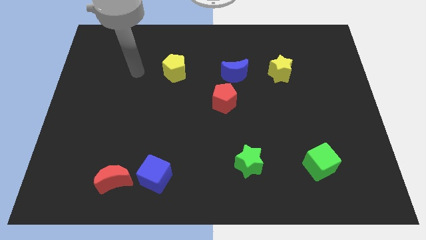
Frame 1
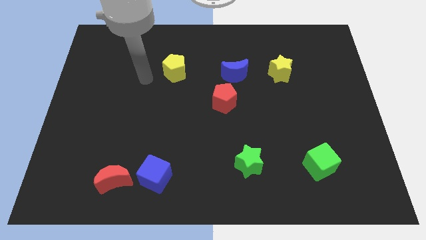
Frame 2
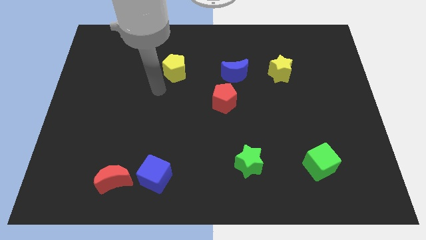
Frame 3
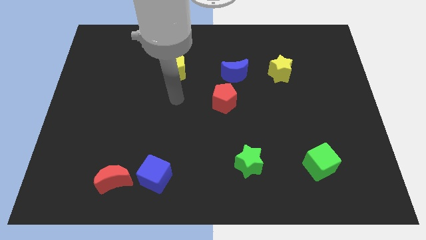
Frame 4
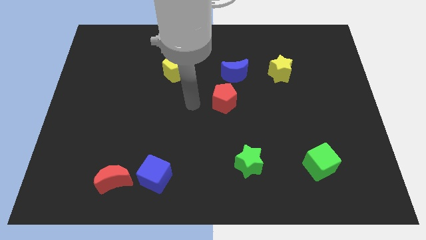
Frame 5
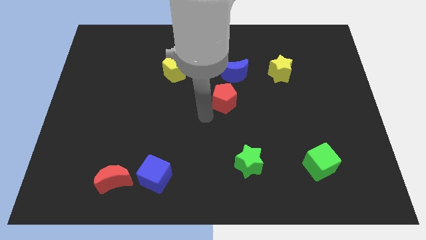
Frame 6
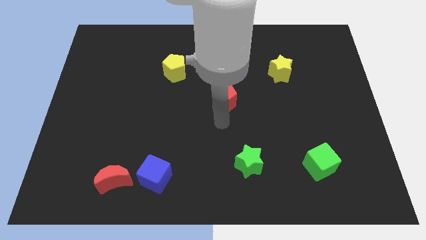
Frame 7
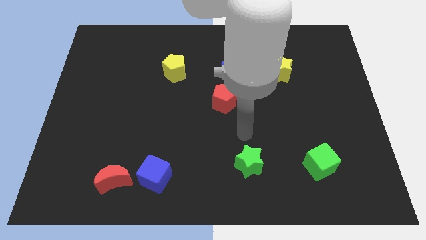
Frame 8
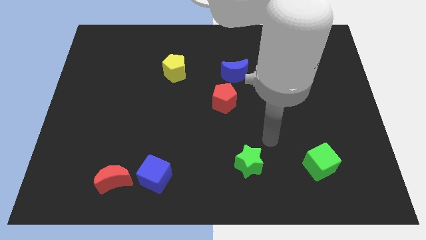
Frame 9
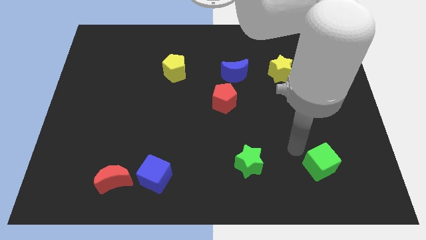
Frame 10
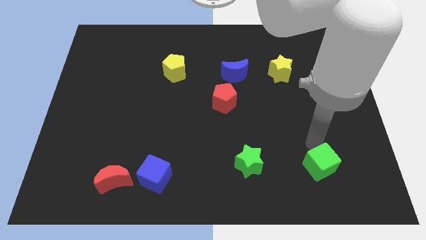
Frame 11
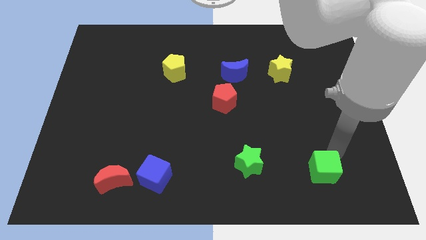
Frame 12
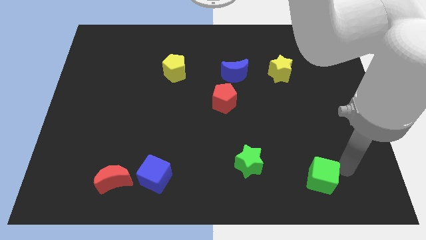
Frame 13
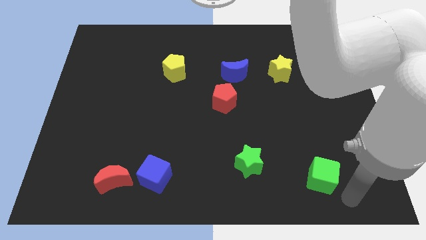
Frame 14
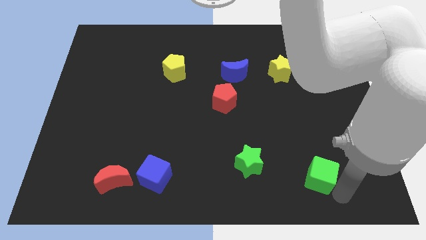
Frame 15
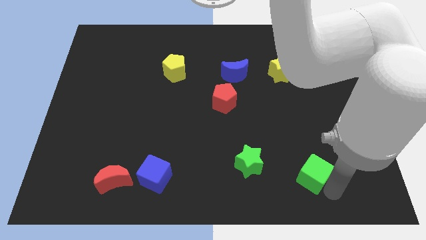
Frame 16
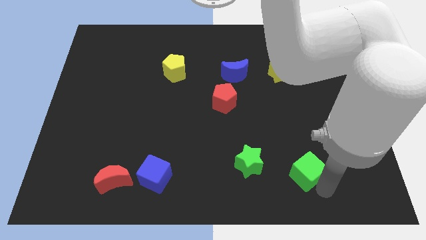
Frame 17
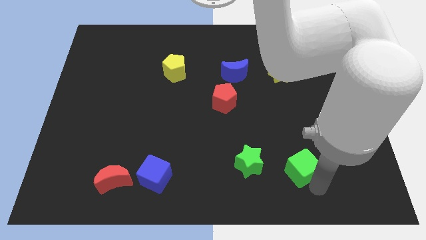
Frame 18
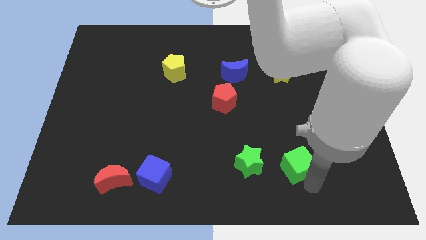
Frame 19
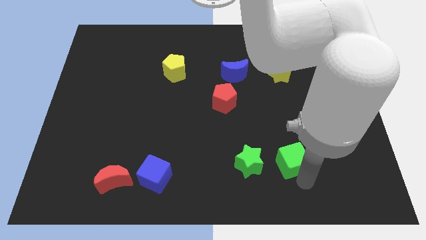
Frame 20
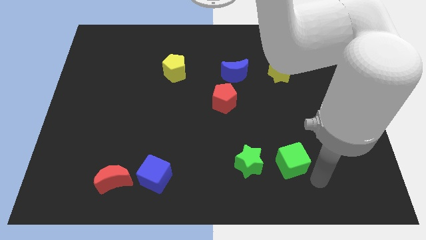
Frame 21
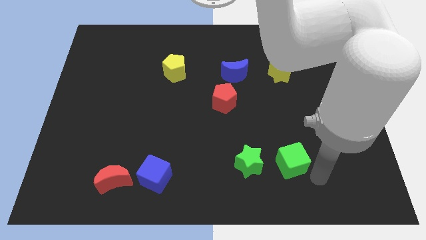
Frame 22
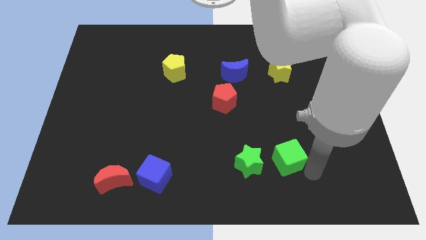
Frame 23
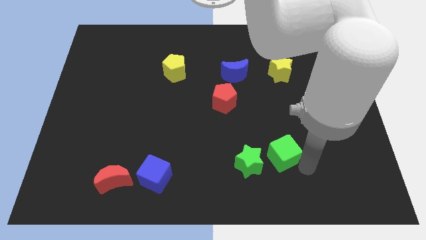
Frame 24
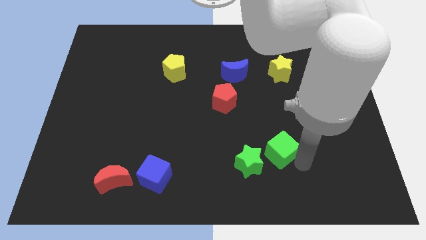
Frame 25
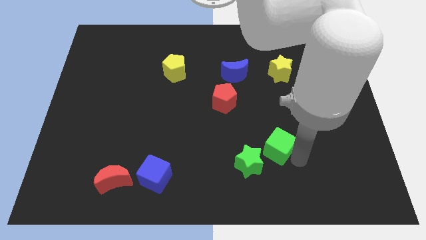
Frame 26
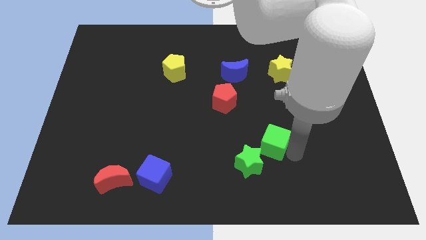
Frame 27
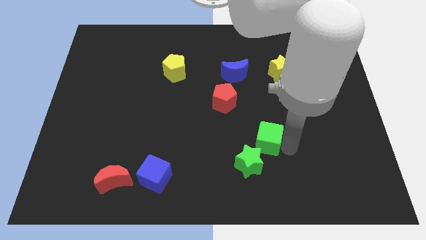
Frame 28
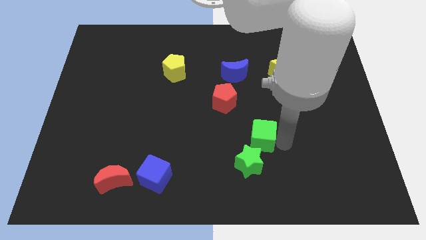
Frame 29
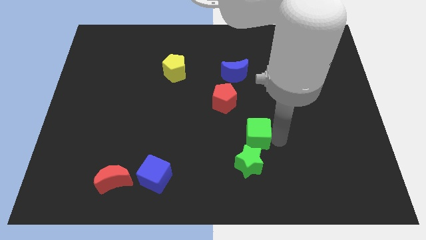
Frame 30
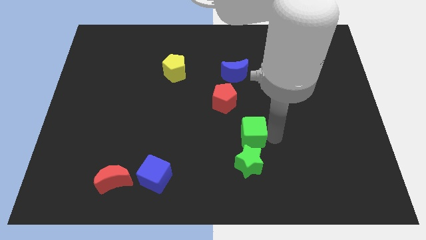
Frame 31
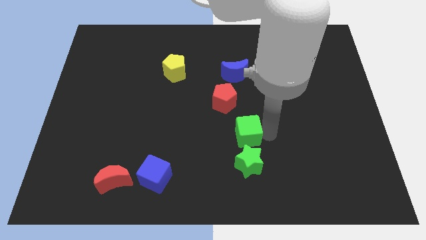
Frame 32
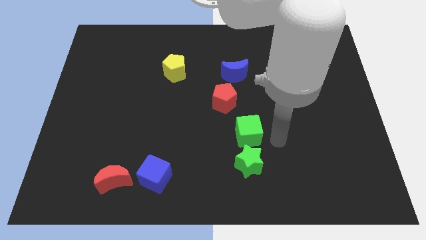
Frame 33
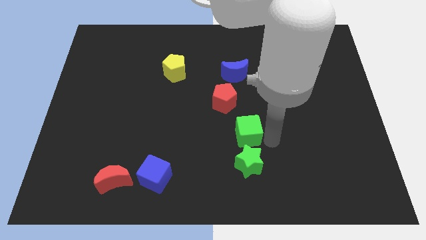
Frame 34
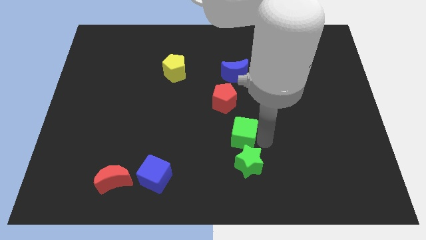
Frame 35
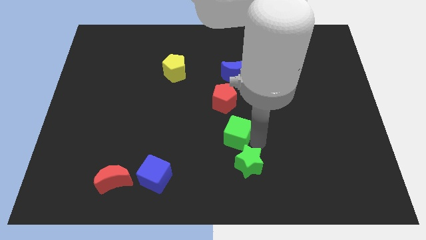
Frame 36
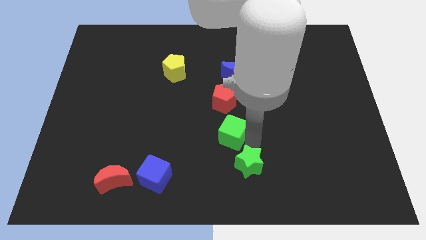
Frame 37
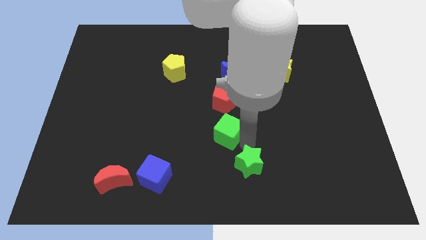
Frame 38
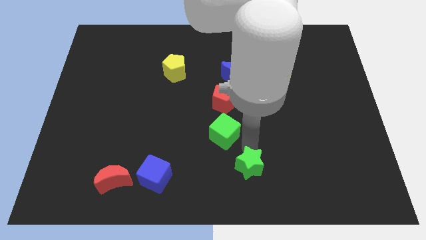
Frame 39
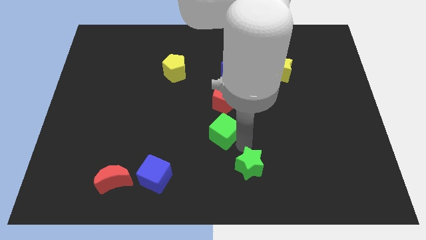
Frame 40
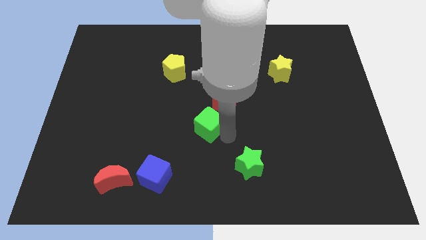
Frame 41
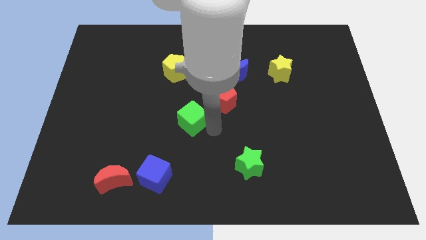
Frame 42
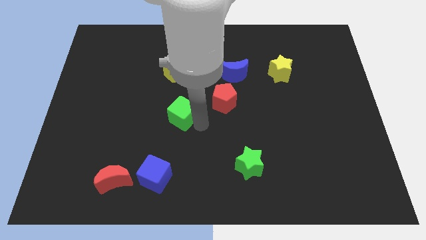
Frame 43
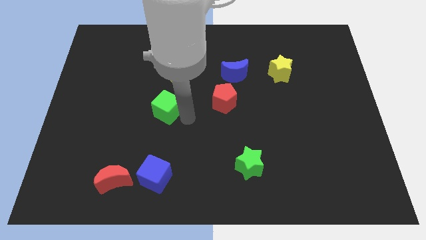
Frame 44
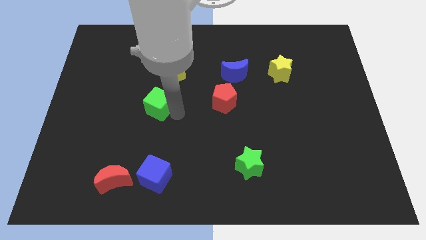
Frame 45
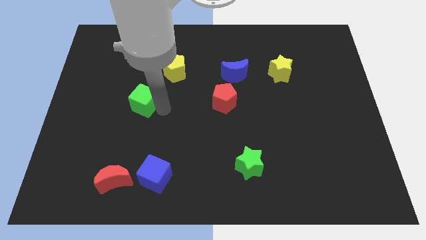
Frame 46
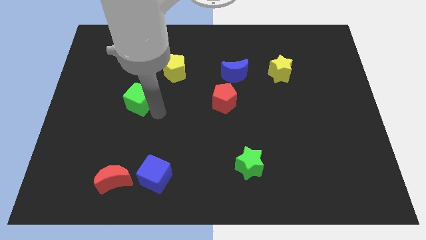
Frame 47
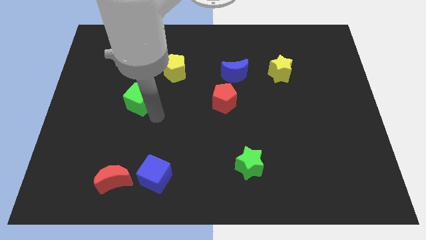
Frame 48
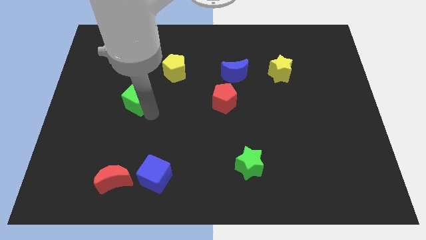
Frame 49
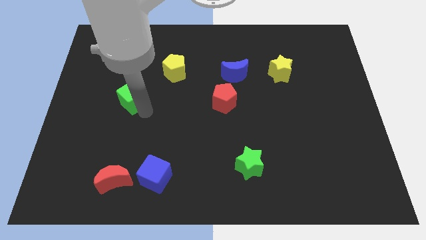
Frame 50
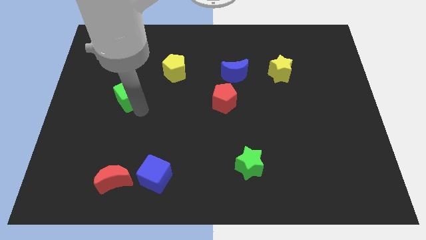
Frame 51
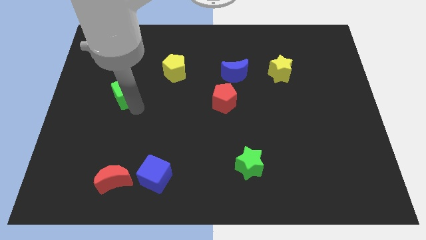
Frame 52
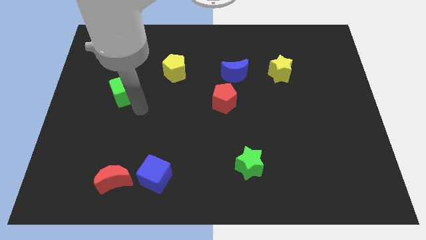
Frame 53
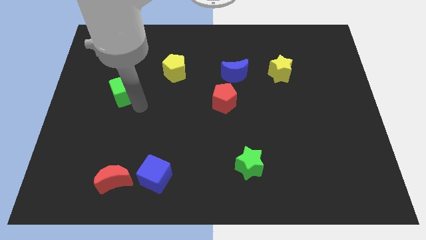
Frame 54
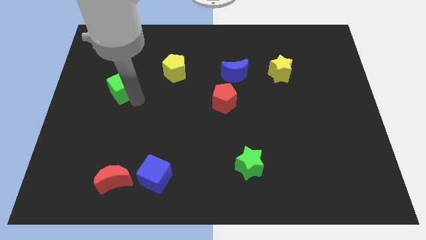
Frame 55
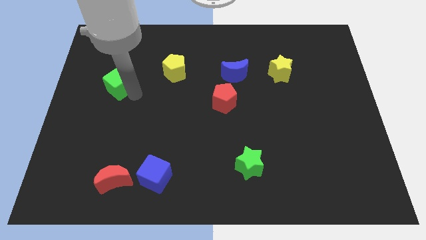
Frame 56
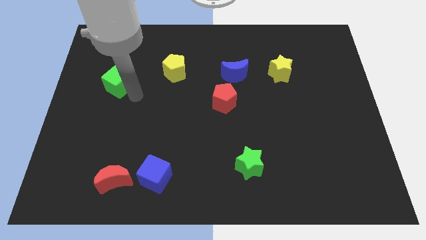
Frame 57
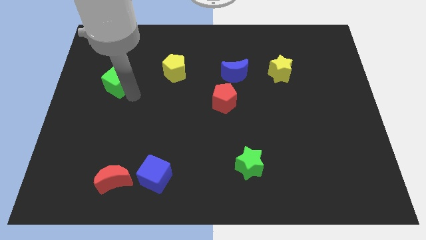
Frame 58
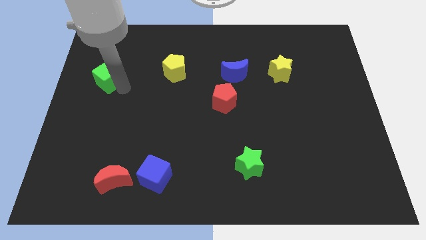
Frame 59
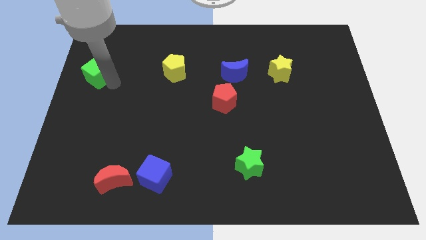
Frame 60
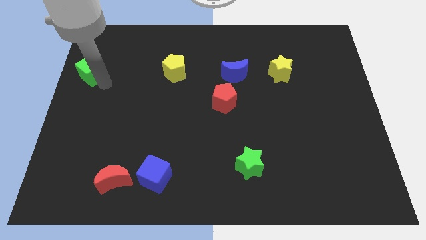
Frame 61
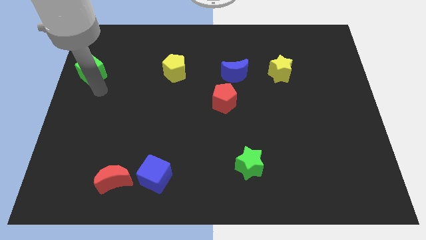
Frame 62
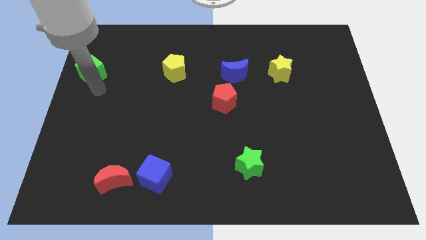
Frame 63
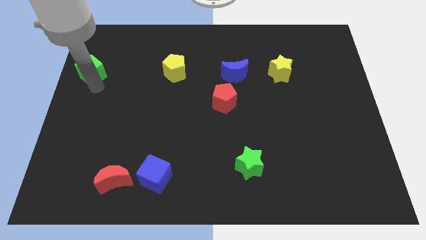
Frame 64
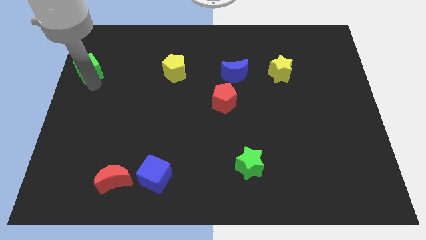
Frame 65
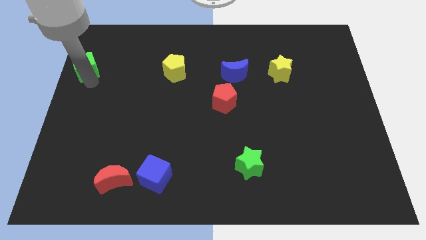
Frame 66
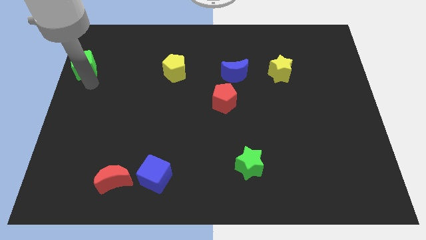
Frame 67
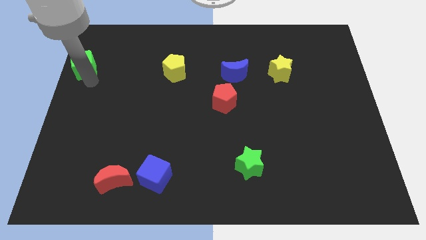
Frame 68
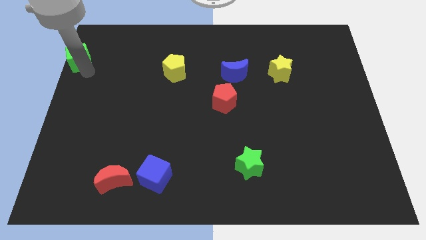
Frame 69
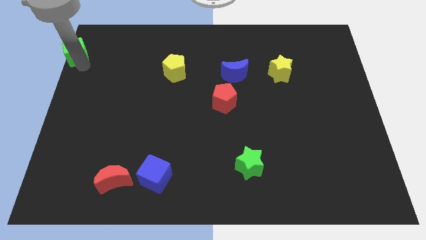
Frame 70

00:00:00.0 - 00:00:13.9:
put the green cube to the top left of the board
